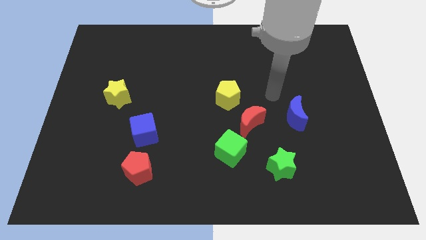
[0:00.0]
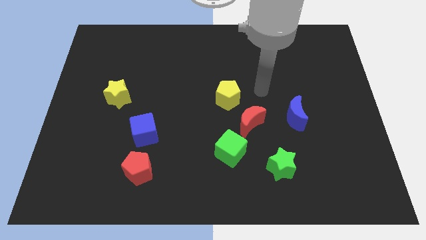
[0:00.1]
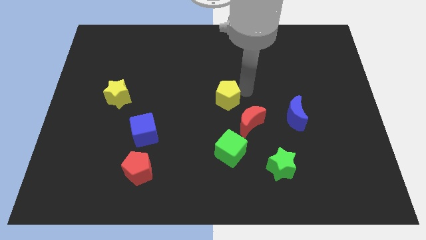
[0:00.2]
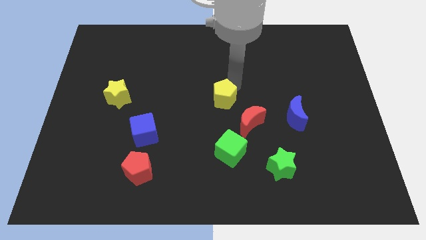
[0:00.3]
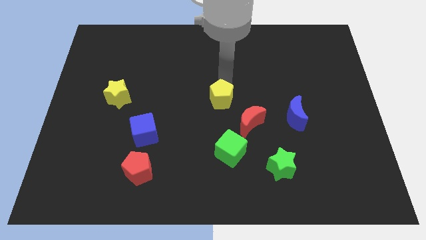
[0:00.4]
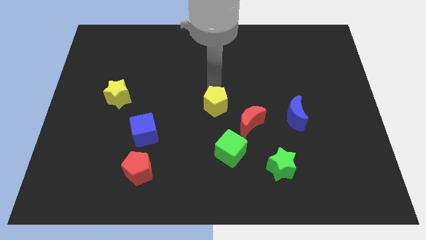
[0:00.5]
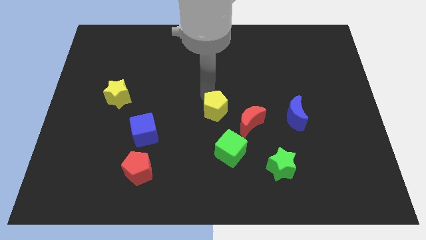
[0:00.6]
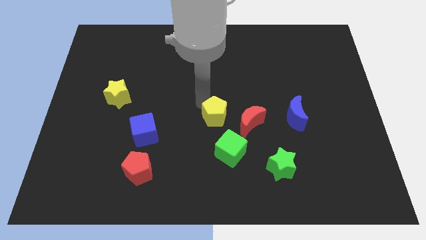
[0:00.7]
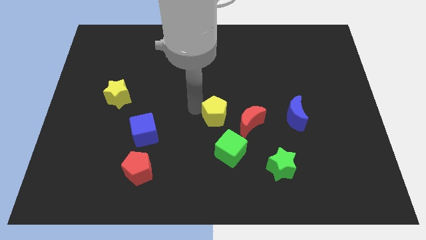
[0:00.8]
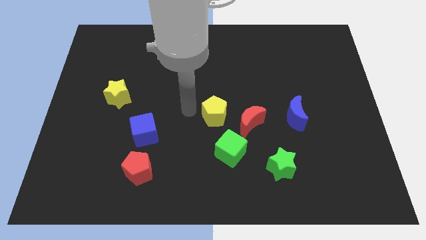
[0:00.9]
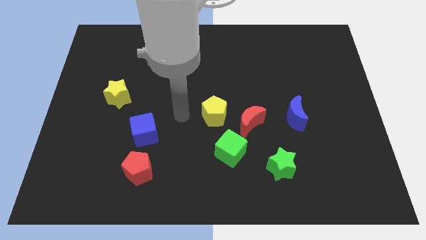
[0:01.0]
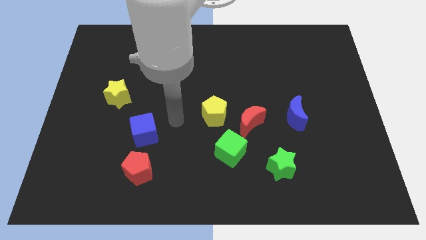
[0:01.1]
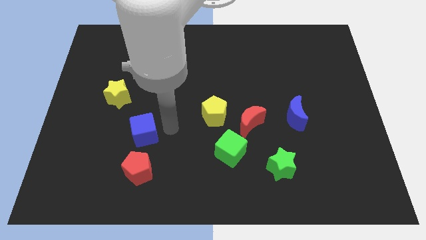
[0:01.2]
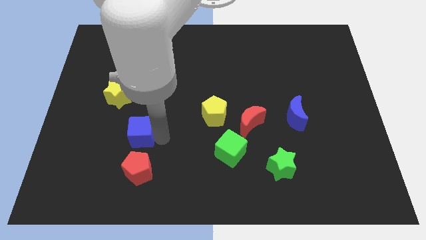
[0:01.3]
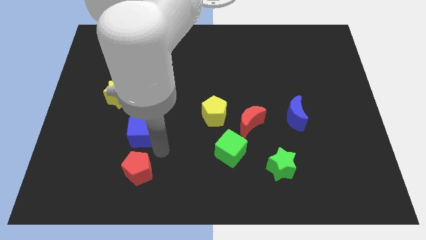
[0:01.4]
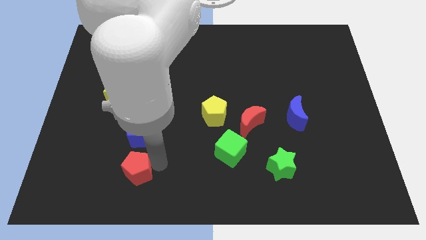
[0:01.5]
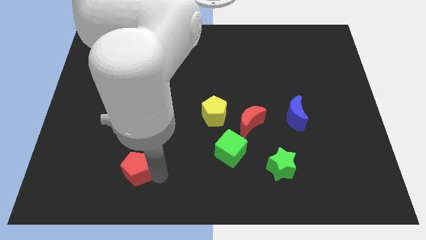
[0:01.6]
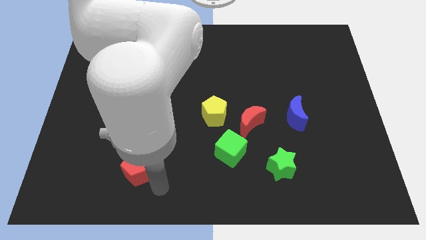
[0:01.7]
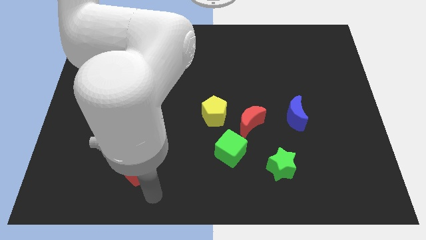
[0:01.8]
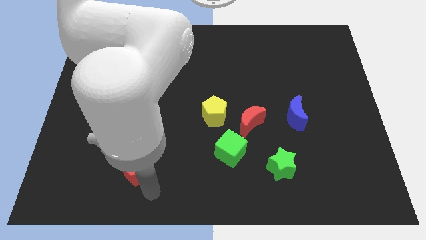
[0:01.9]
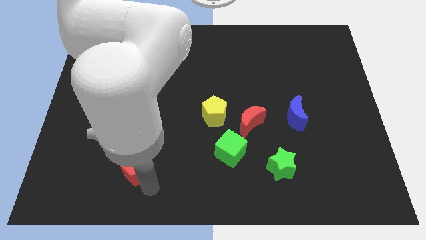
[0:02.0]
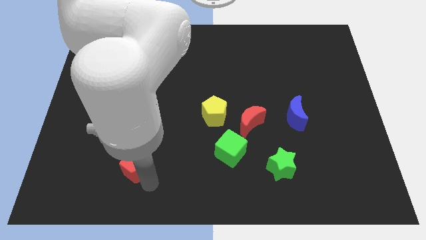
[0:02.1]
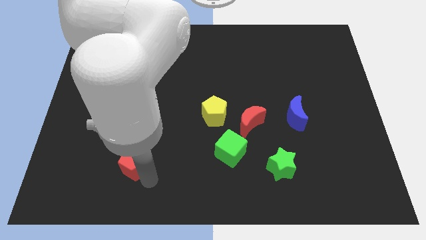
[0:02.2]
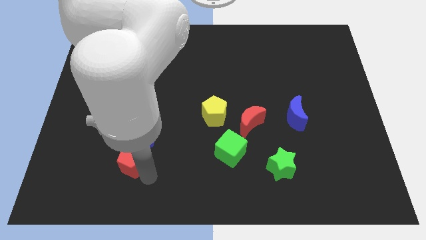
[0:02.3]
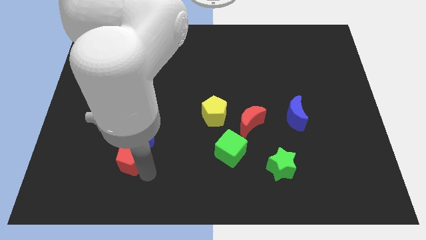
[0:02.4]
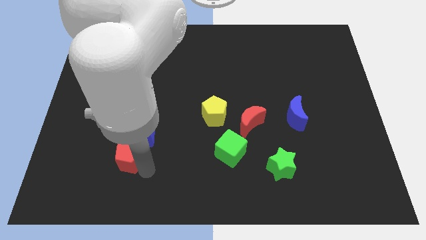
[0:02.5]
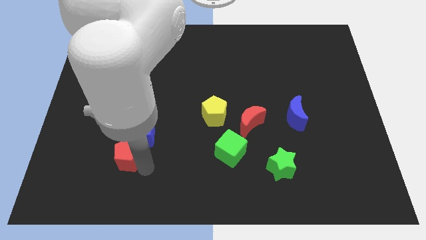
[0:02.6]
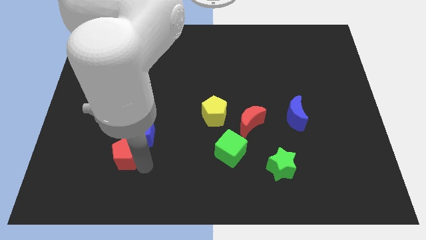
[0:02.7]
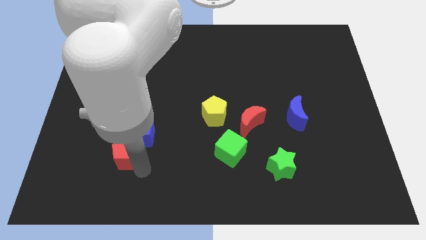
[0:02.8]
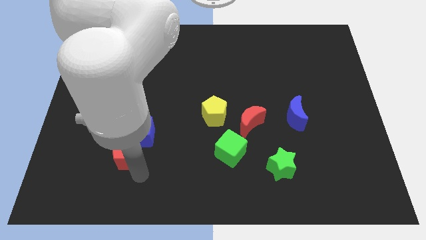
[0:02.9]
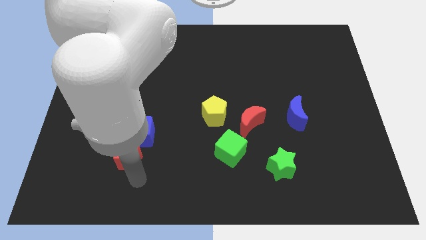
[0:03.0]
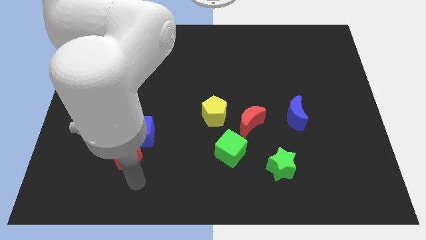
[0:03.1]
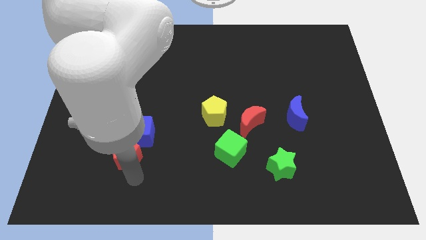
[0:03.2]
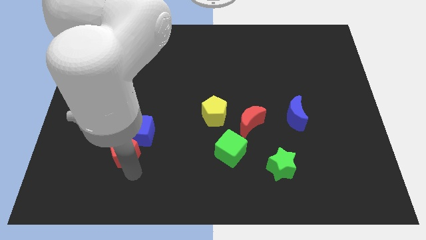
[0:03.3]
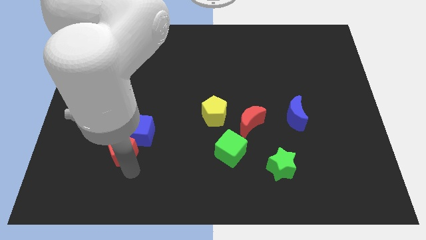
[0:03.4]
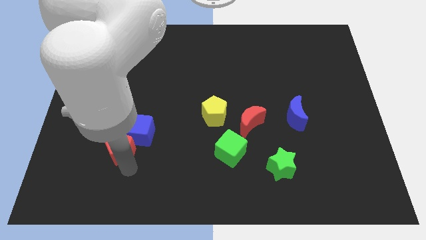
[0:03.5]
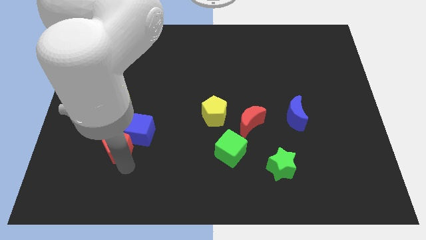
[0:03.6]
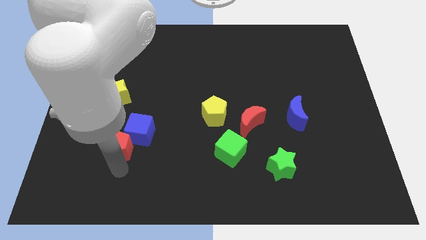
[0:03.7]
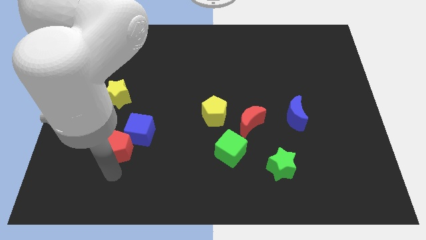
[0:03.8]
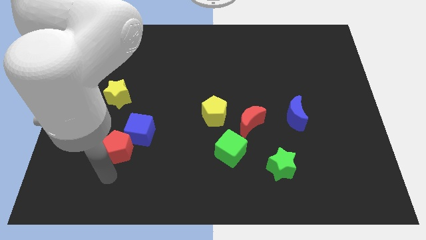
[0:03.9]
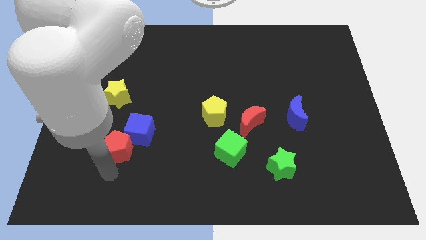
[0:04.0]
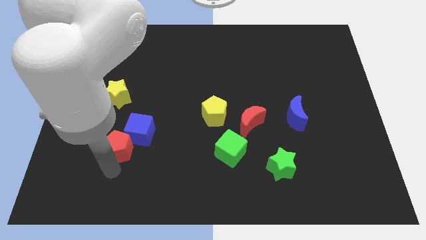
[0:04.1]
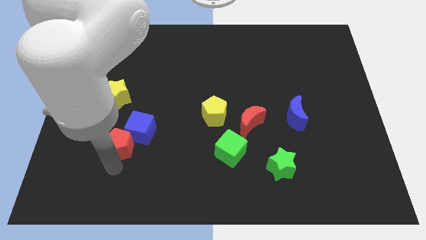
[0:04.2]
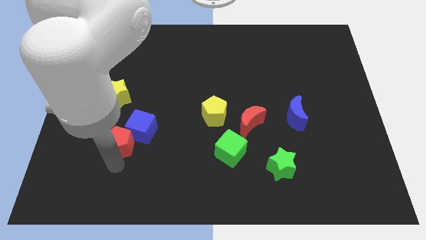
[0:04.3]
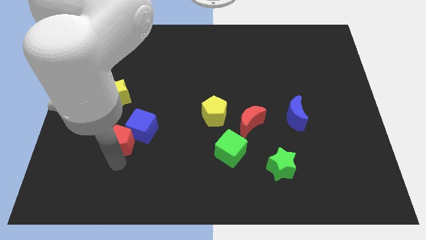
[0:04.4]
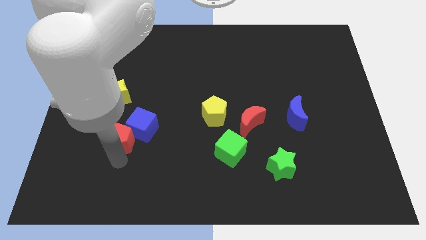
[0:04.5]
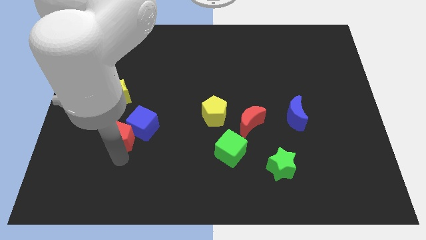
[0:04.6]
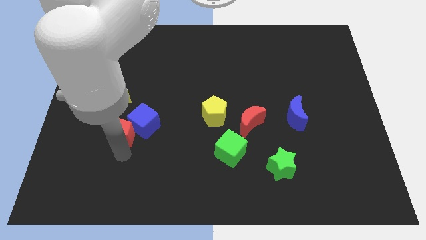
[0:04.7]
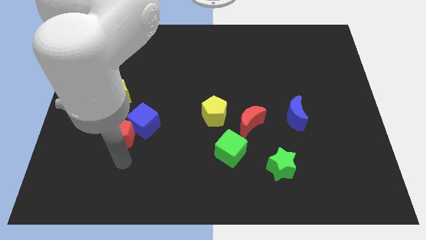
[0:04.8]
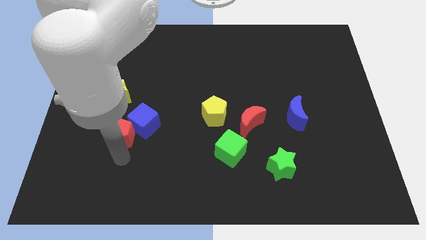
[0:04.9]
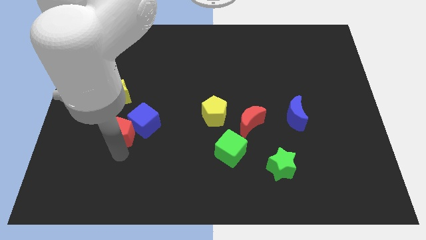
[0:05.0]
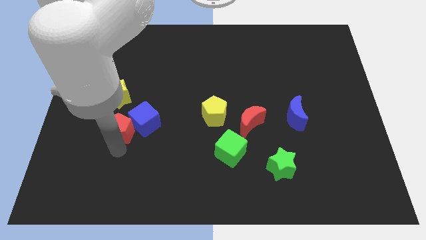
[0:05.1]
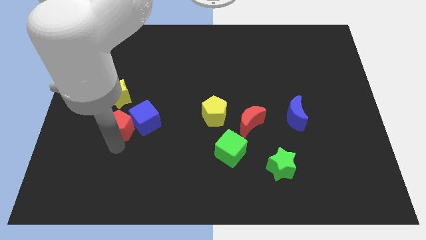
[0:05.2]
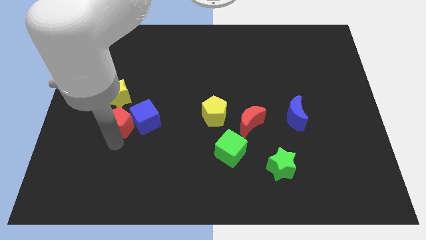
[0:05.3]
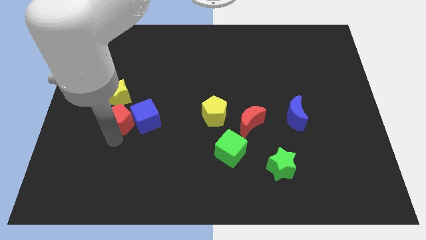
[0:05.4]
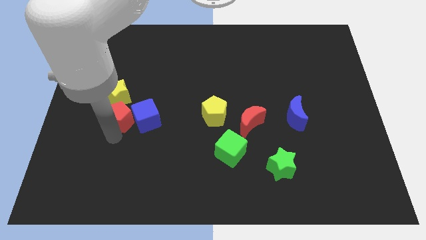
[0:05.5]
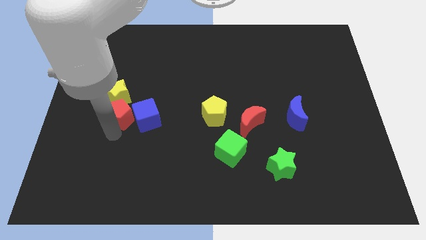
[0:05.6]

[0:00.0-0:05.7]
move the red pentagon towards the yellow star
